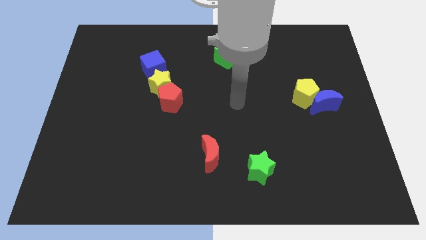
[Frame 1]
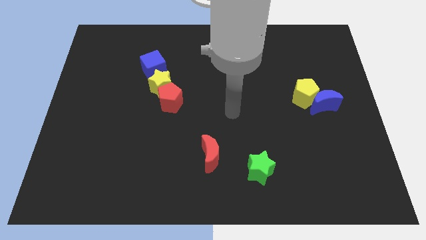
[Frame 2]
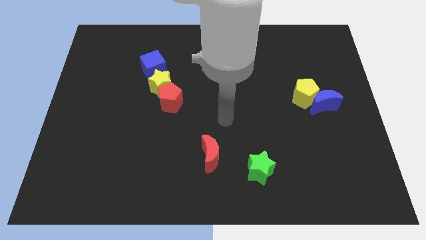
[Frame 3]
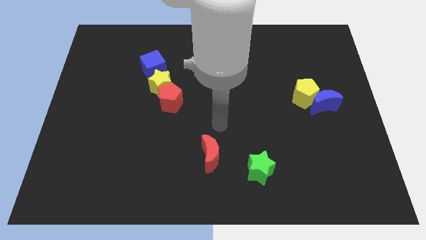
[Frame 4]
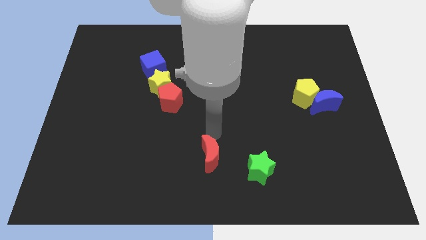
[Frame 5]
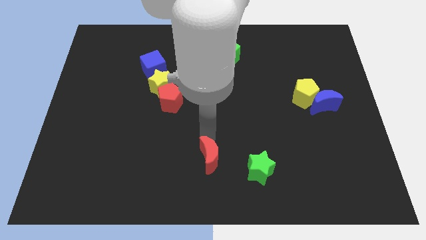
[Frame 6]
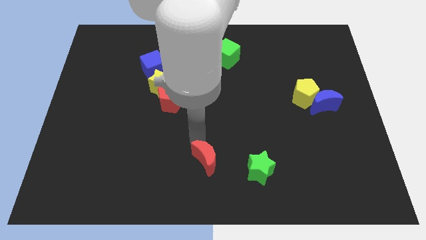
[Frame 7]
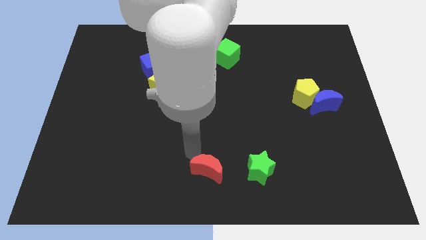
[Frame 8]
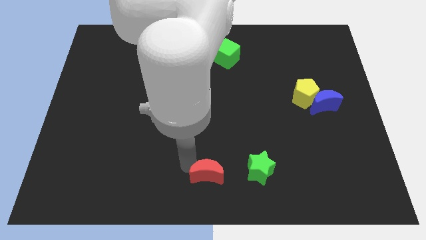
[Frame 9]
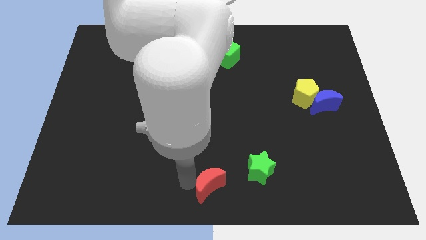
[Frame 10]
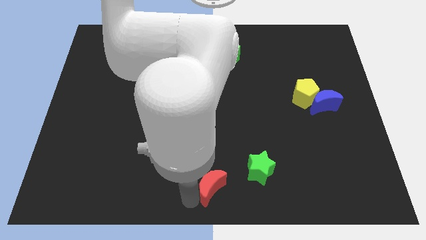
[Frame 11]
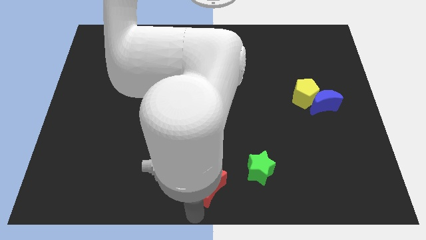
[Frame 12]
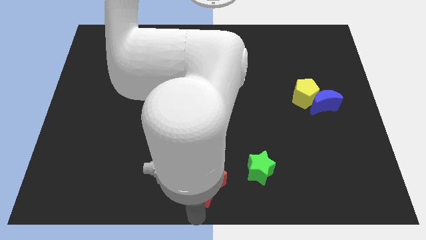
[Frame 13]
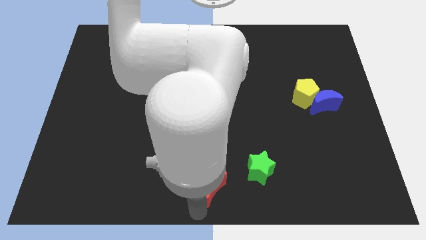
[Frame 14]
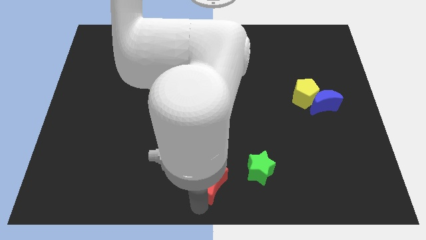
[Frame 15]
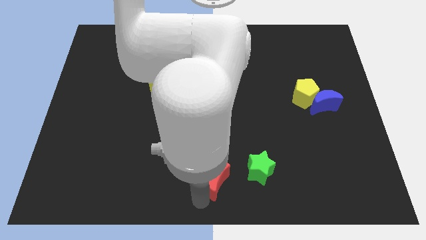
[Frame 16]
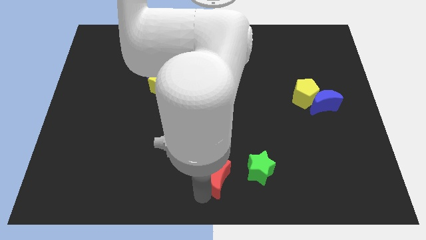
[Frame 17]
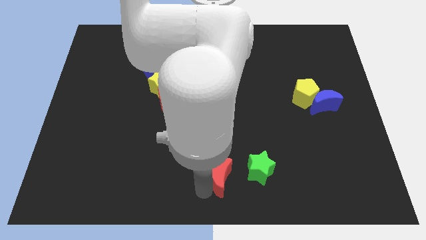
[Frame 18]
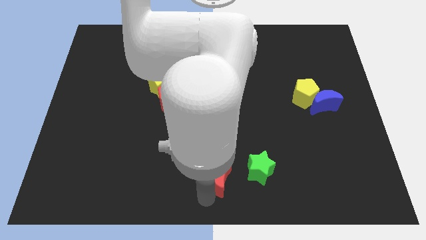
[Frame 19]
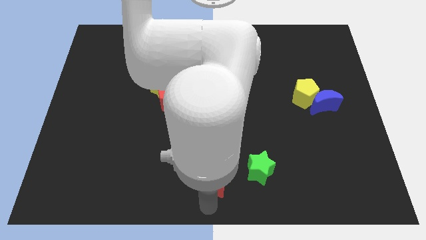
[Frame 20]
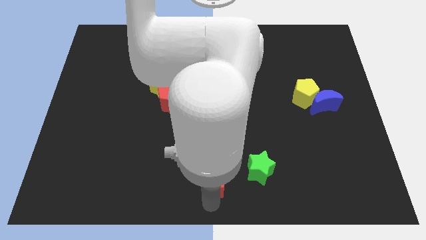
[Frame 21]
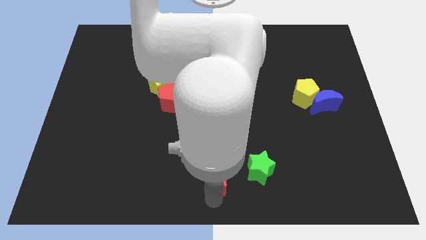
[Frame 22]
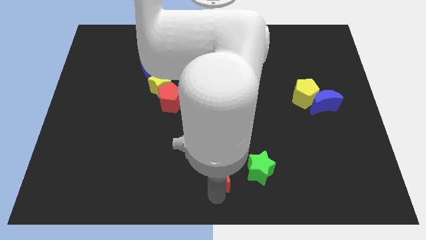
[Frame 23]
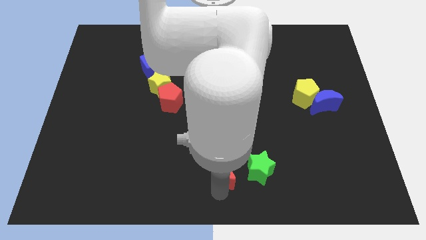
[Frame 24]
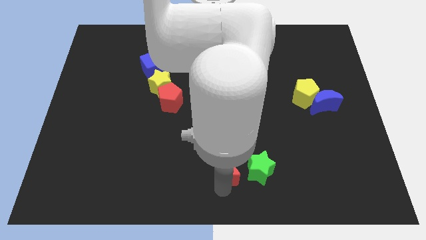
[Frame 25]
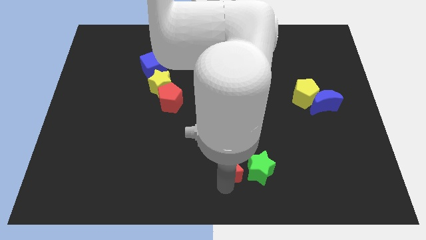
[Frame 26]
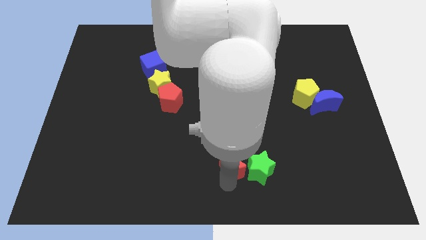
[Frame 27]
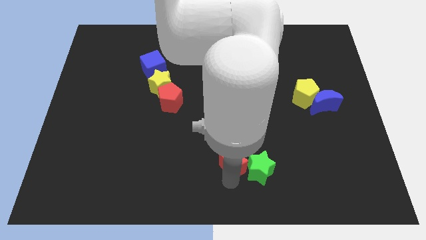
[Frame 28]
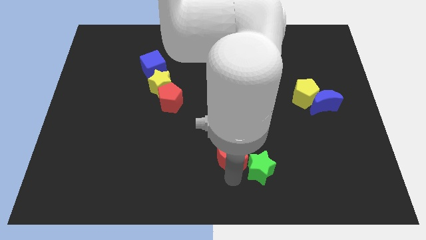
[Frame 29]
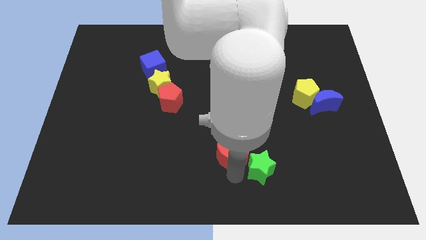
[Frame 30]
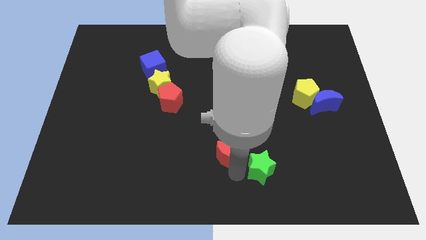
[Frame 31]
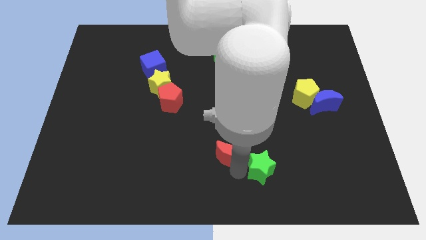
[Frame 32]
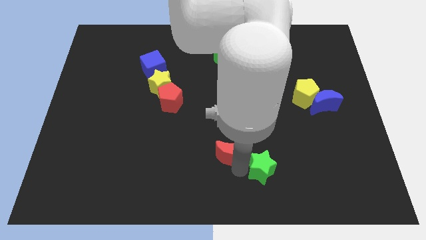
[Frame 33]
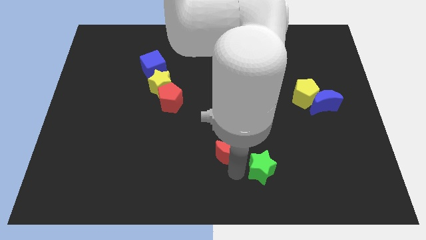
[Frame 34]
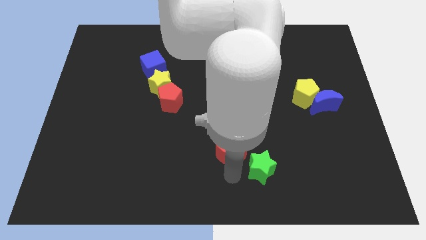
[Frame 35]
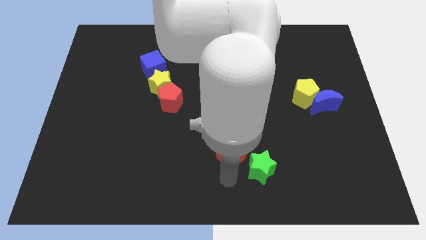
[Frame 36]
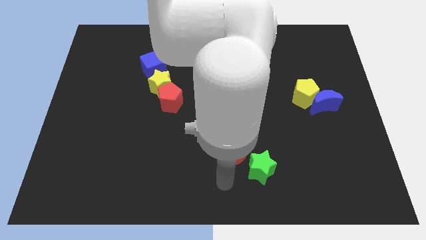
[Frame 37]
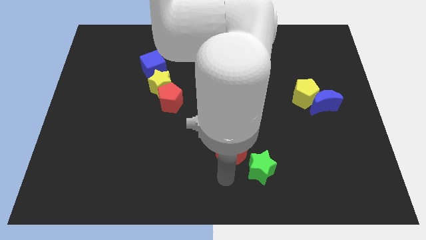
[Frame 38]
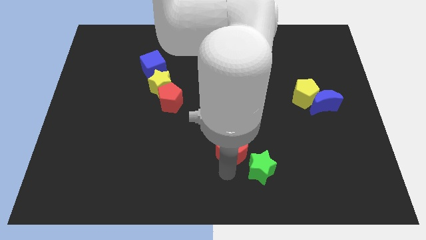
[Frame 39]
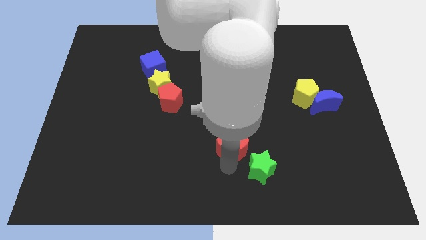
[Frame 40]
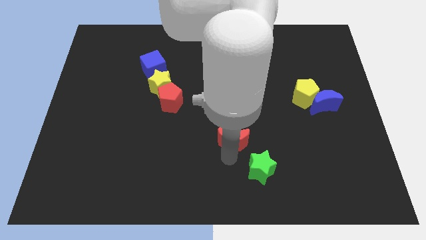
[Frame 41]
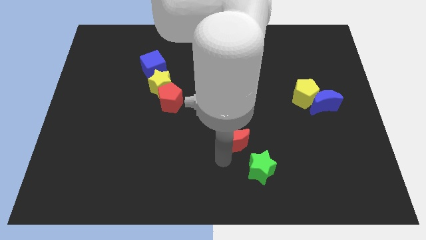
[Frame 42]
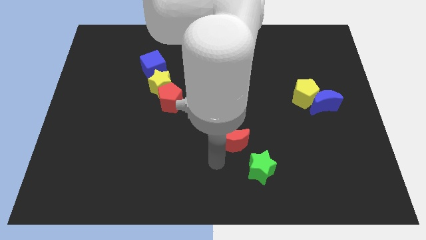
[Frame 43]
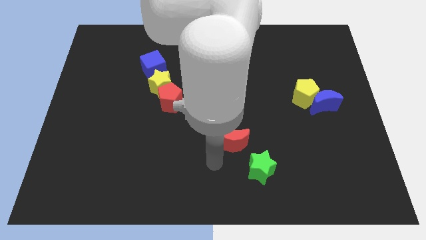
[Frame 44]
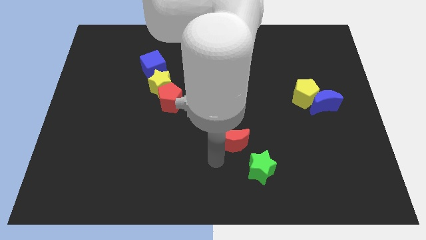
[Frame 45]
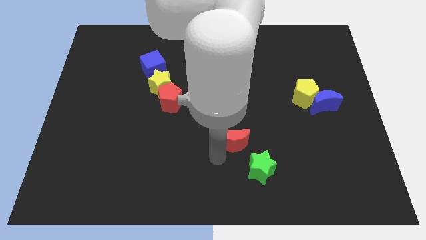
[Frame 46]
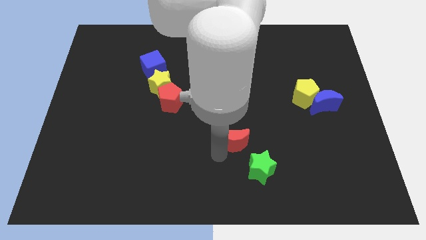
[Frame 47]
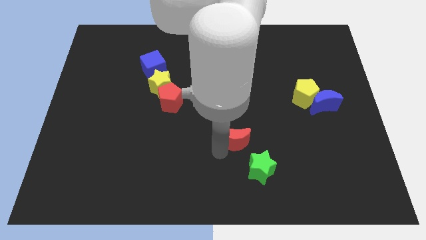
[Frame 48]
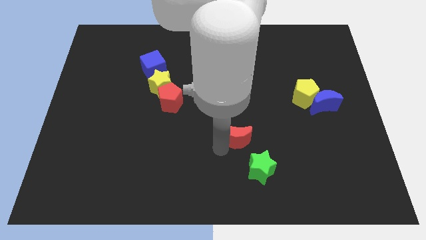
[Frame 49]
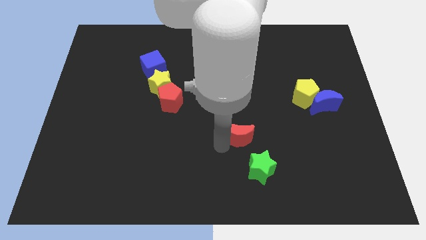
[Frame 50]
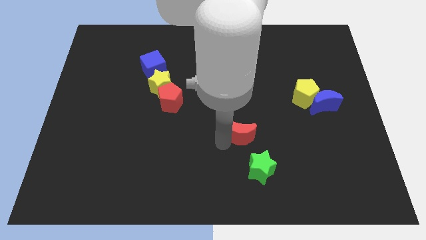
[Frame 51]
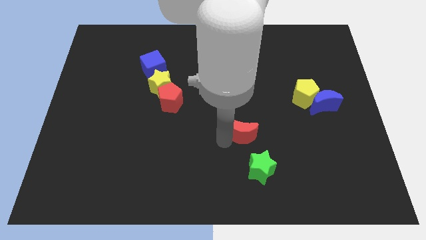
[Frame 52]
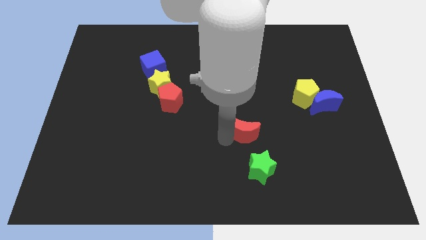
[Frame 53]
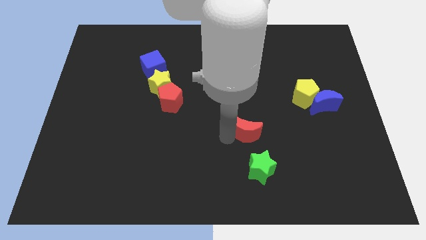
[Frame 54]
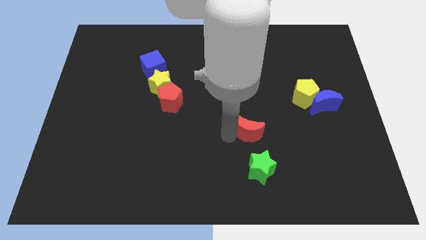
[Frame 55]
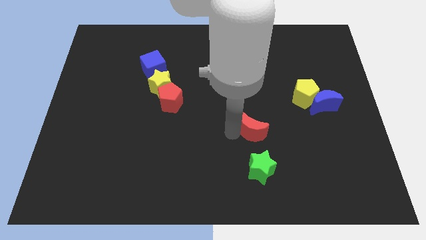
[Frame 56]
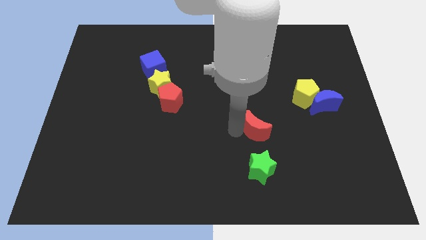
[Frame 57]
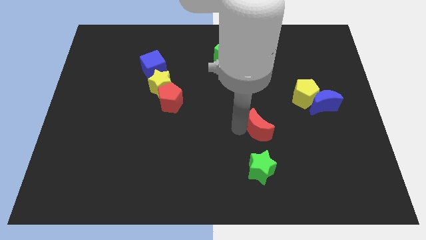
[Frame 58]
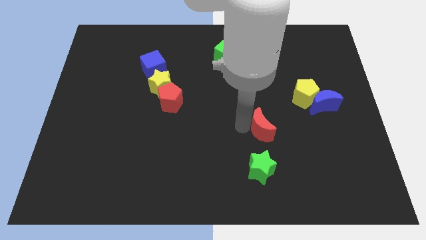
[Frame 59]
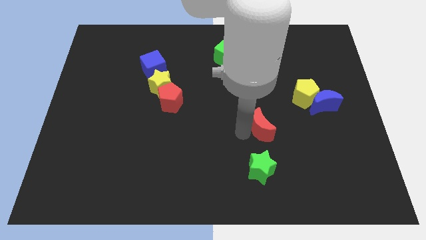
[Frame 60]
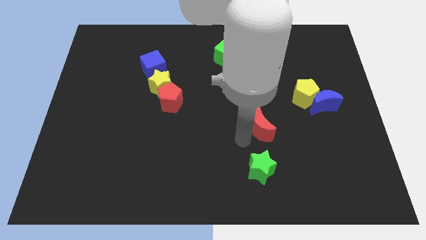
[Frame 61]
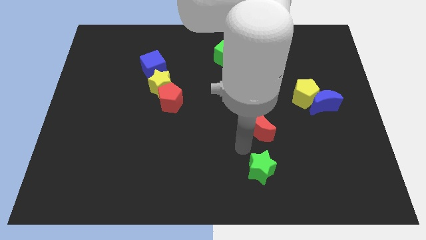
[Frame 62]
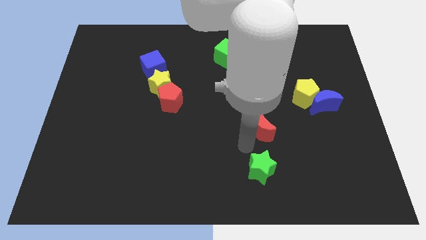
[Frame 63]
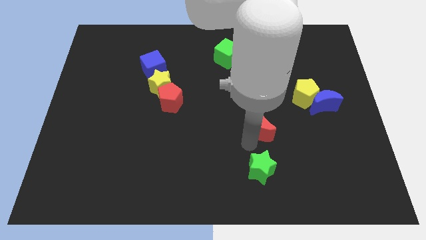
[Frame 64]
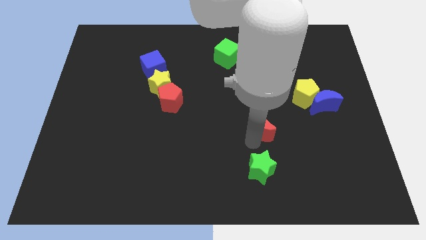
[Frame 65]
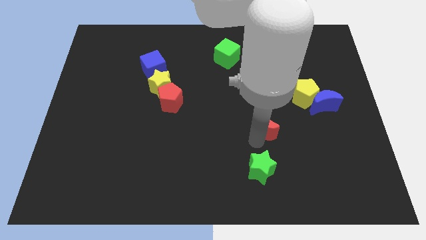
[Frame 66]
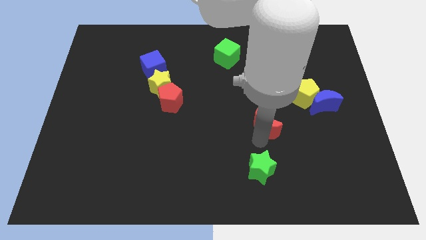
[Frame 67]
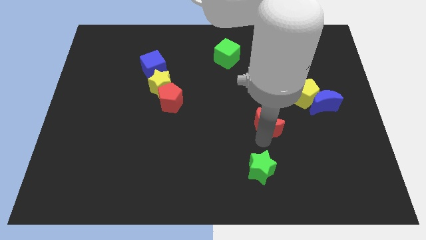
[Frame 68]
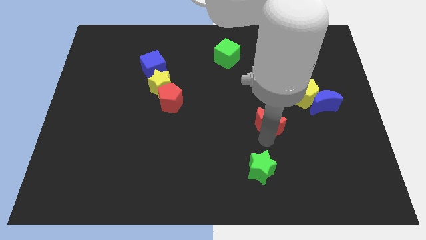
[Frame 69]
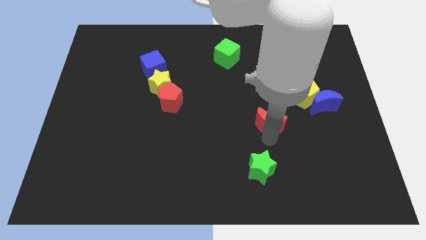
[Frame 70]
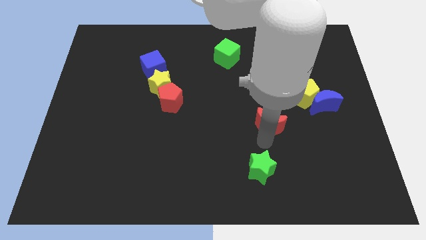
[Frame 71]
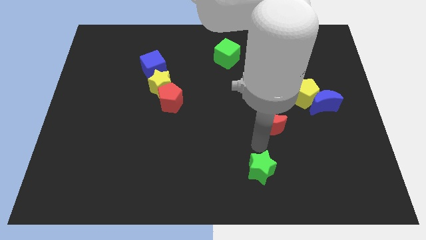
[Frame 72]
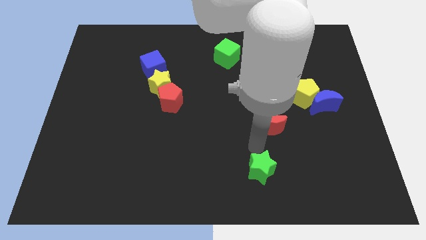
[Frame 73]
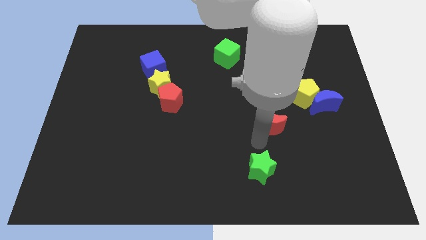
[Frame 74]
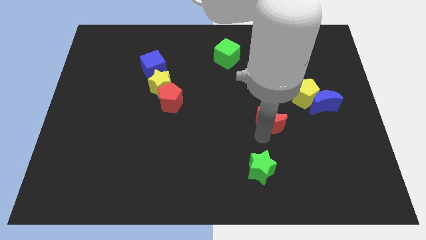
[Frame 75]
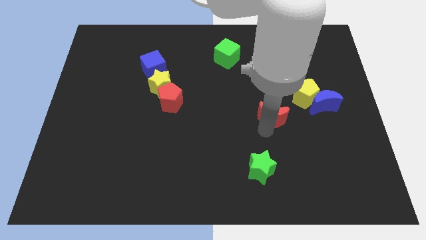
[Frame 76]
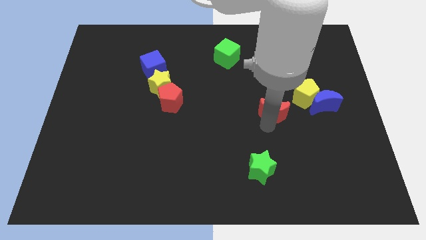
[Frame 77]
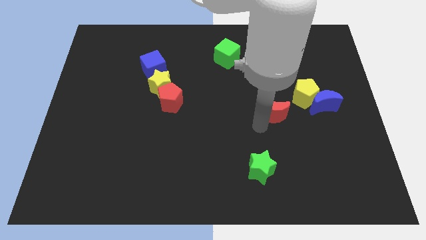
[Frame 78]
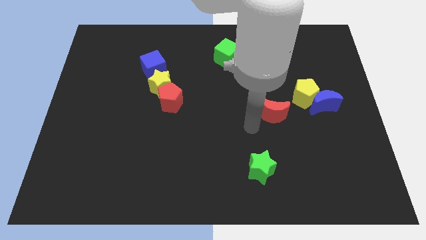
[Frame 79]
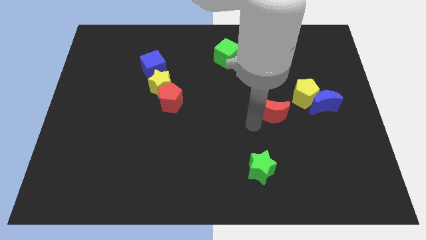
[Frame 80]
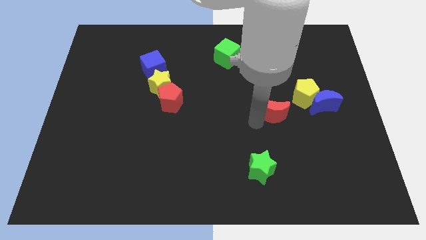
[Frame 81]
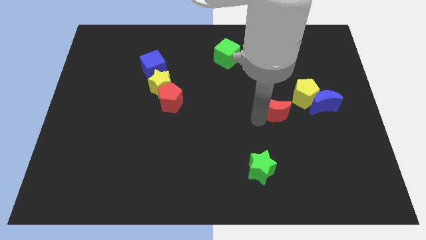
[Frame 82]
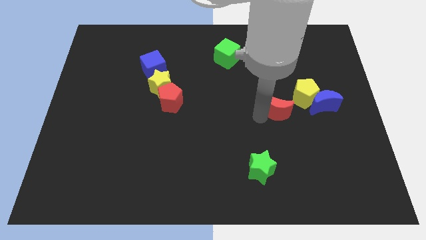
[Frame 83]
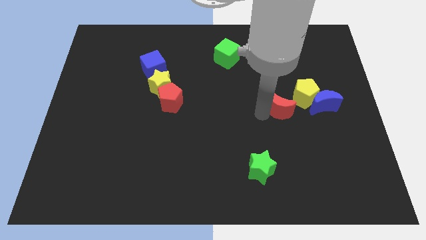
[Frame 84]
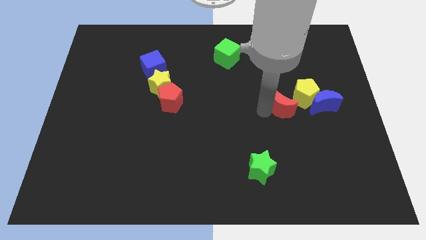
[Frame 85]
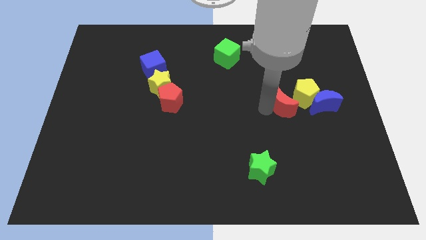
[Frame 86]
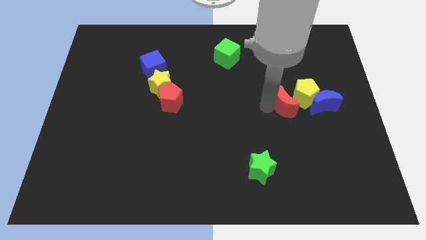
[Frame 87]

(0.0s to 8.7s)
push the red moon close to the yellow pentagon
